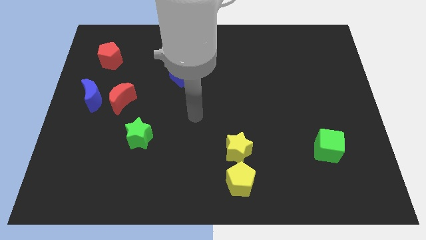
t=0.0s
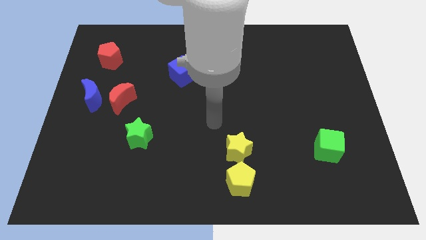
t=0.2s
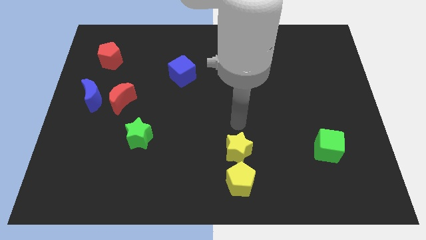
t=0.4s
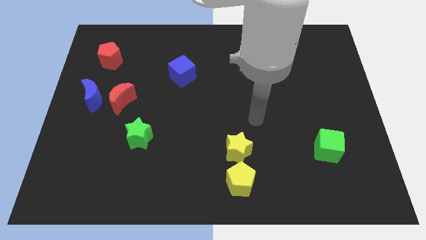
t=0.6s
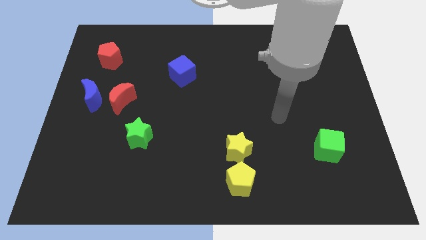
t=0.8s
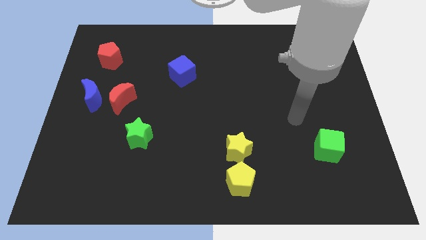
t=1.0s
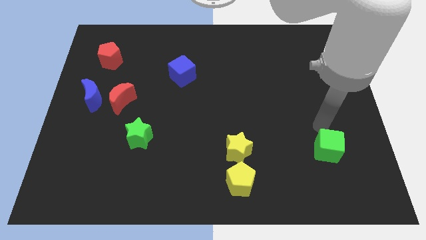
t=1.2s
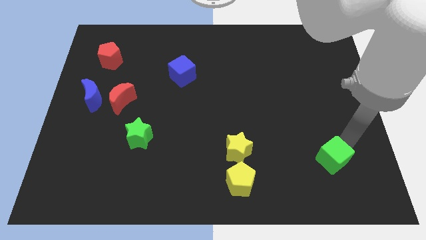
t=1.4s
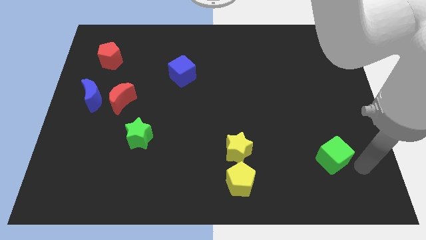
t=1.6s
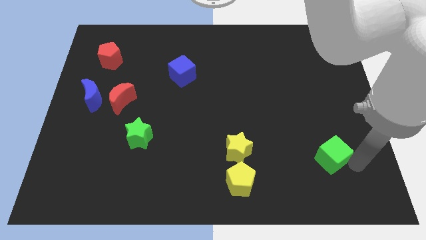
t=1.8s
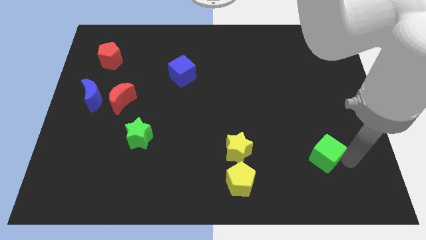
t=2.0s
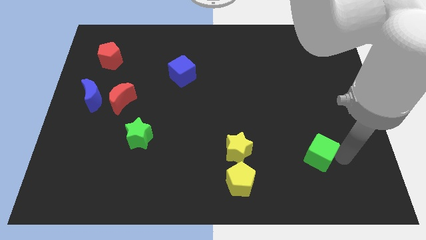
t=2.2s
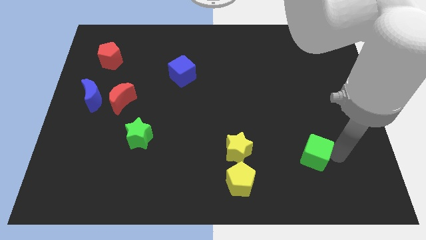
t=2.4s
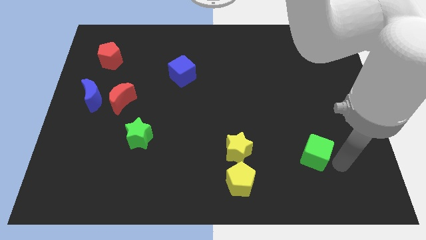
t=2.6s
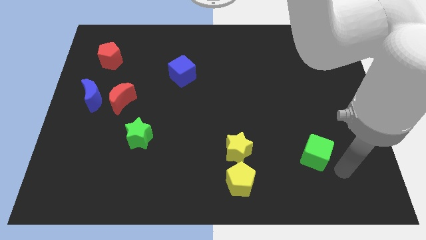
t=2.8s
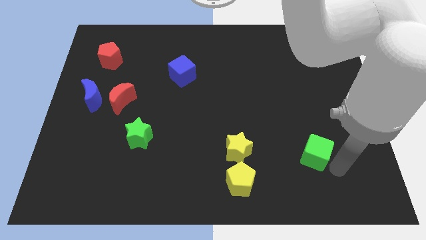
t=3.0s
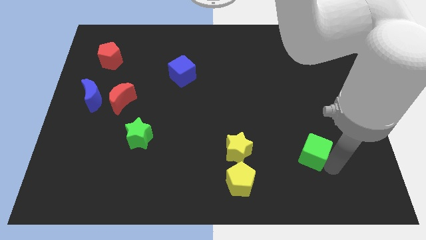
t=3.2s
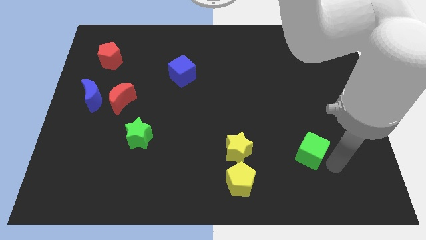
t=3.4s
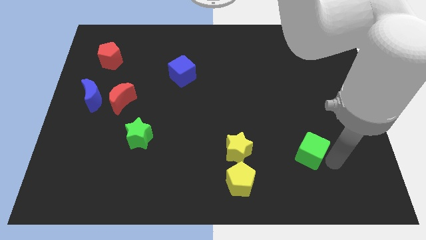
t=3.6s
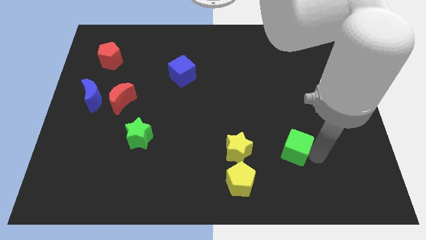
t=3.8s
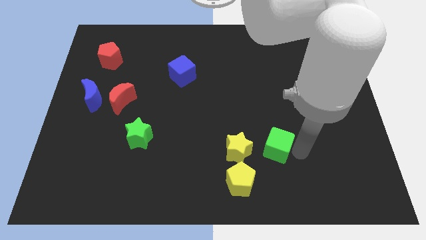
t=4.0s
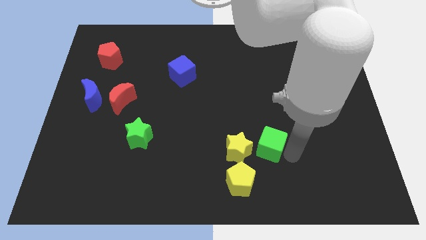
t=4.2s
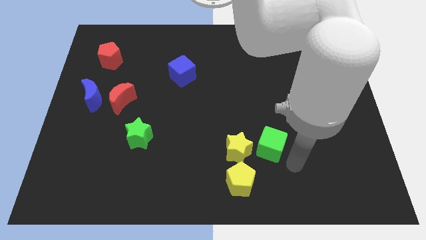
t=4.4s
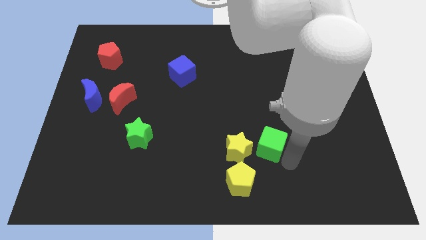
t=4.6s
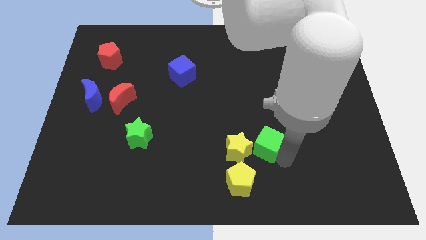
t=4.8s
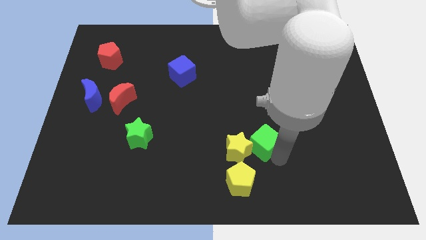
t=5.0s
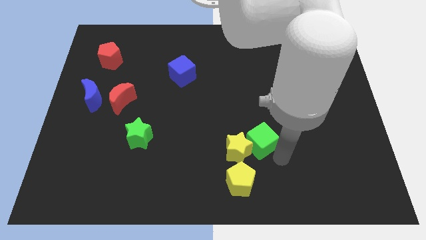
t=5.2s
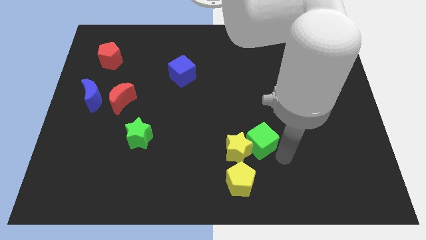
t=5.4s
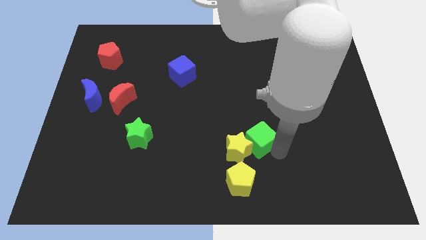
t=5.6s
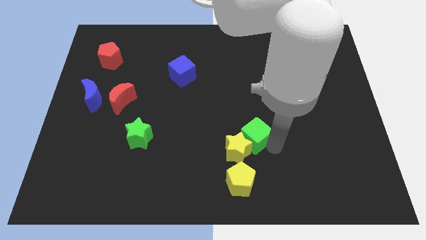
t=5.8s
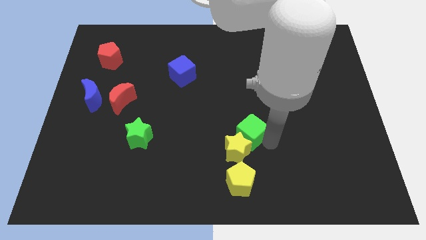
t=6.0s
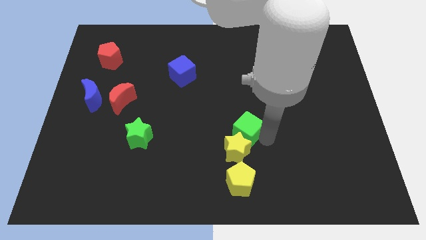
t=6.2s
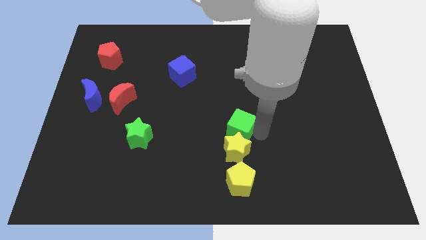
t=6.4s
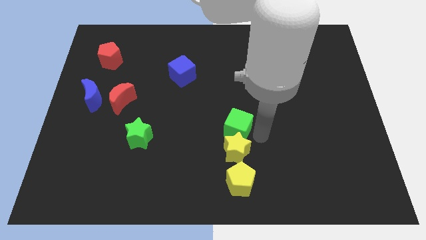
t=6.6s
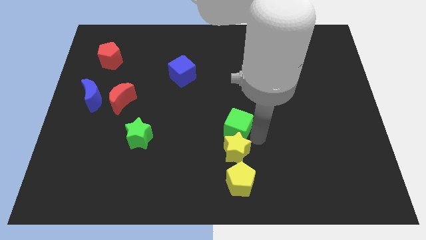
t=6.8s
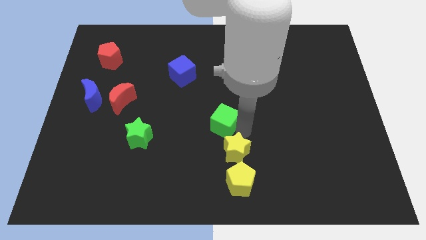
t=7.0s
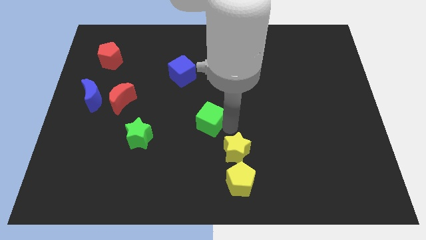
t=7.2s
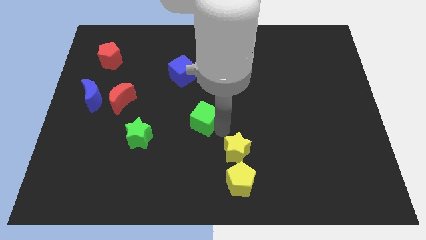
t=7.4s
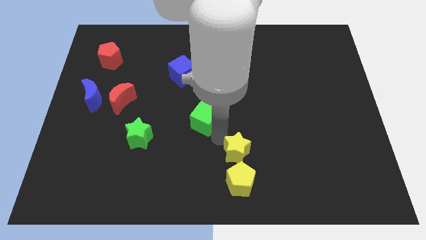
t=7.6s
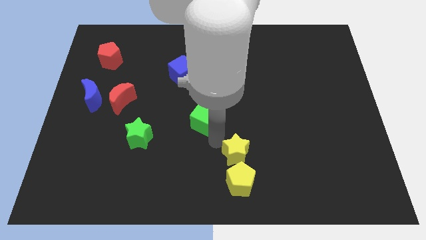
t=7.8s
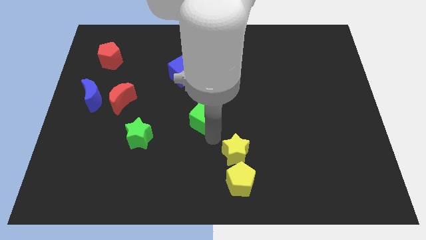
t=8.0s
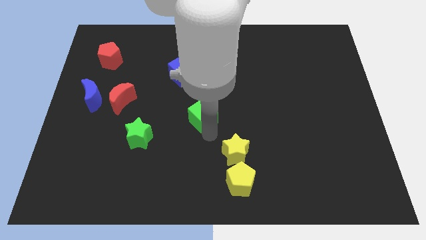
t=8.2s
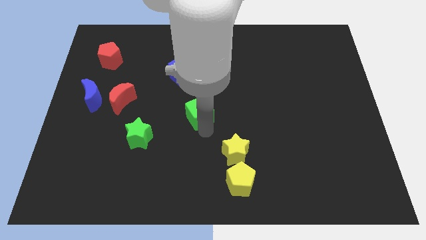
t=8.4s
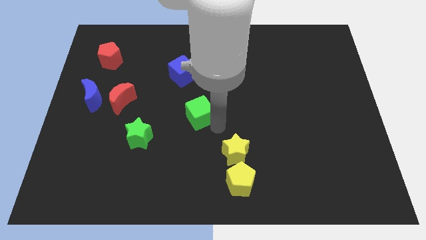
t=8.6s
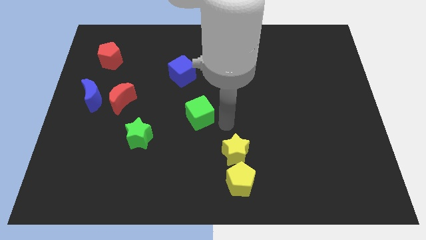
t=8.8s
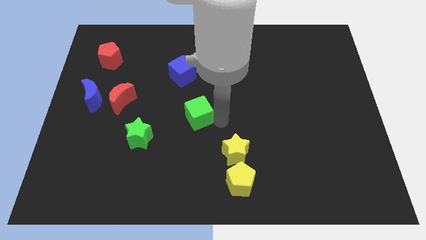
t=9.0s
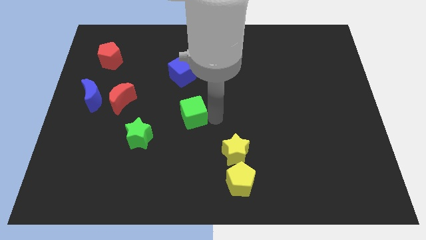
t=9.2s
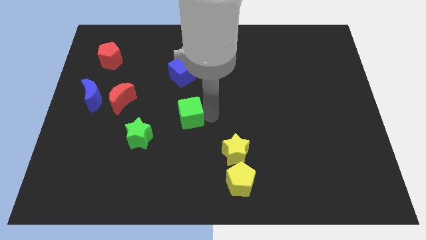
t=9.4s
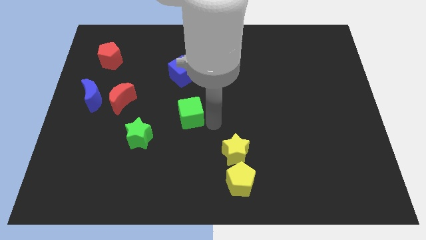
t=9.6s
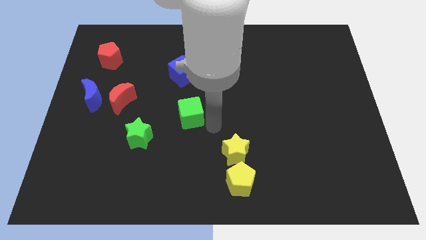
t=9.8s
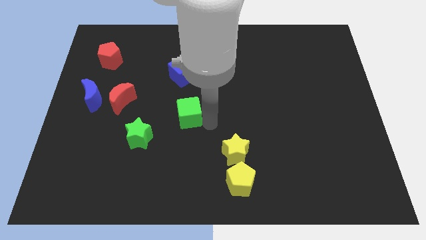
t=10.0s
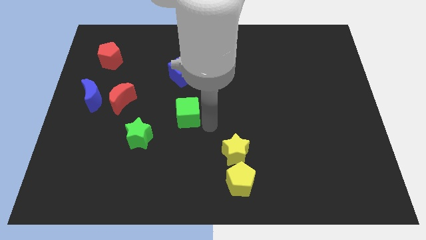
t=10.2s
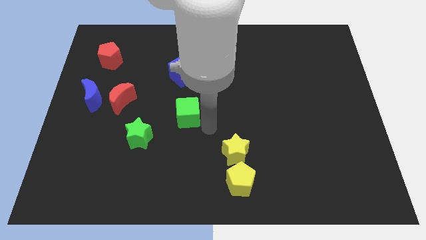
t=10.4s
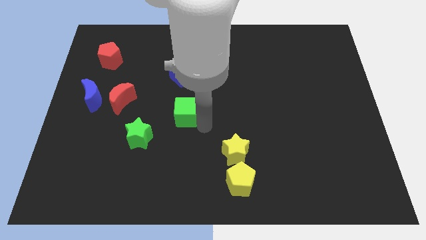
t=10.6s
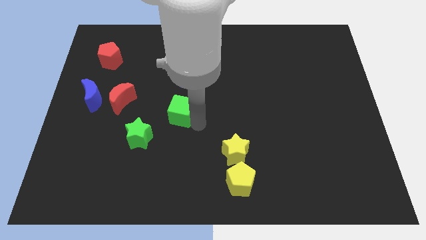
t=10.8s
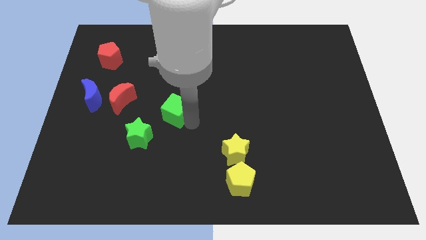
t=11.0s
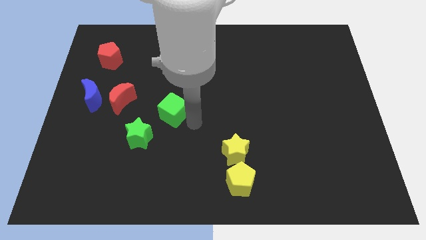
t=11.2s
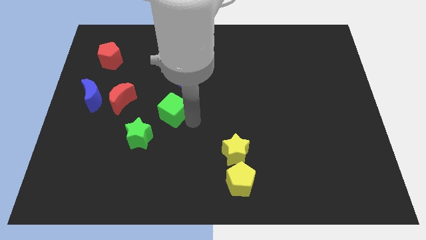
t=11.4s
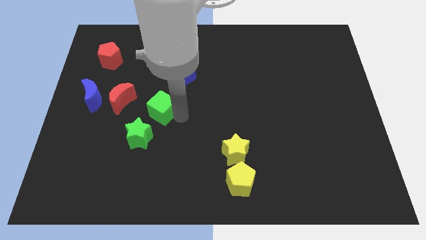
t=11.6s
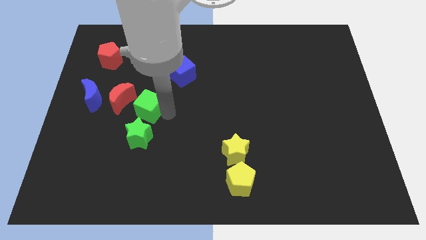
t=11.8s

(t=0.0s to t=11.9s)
put the green cube to the right of the blue moon
